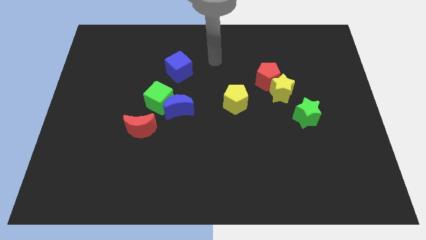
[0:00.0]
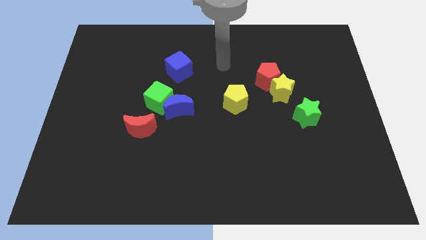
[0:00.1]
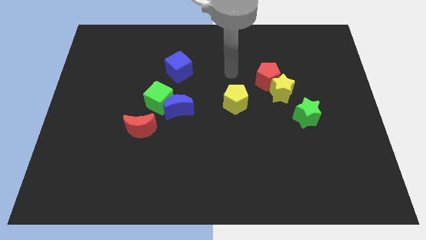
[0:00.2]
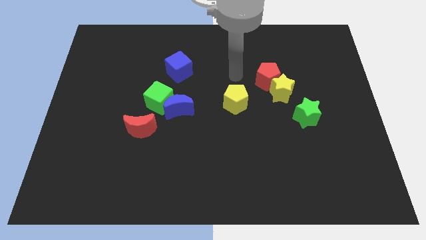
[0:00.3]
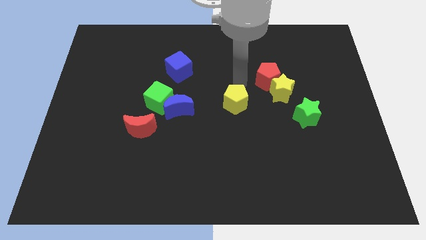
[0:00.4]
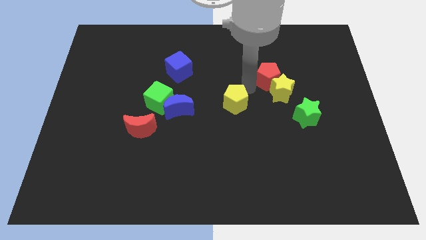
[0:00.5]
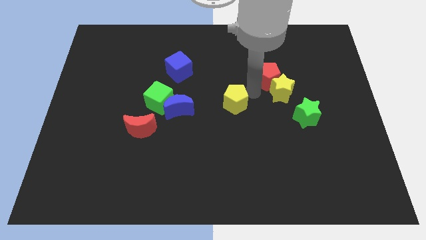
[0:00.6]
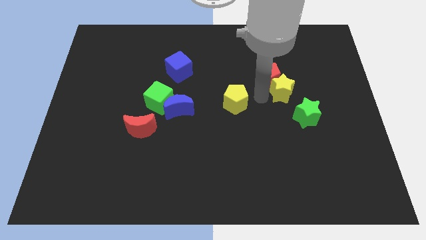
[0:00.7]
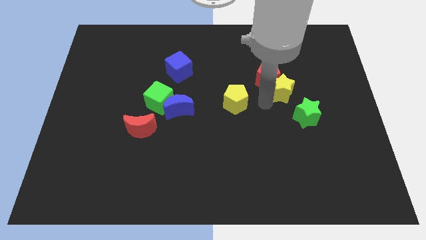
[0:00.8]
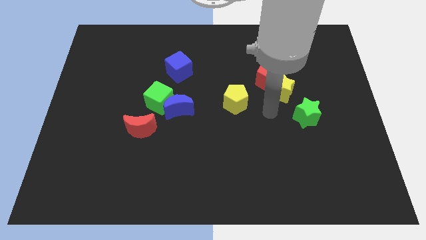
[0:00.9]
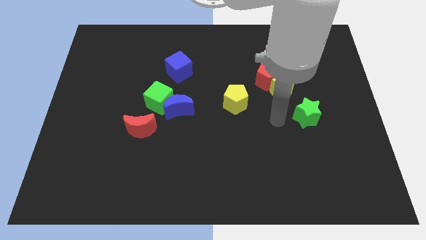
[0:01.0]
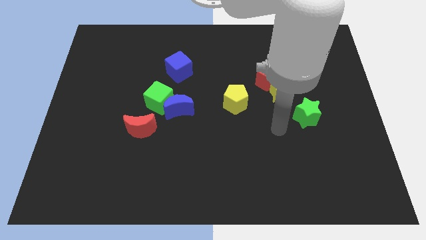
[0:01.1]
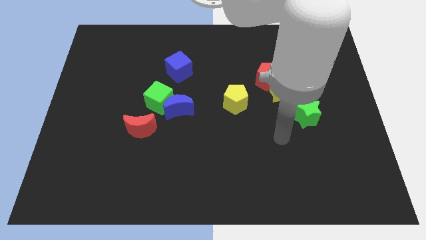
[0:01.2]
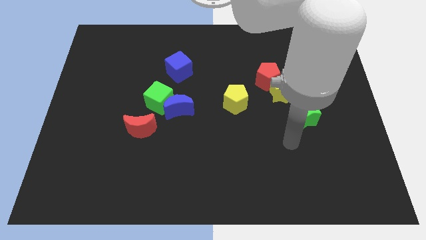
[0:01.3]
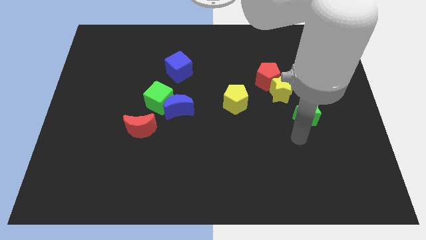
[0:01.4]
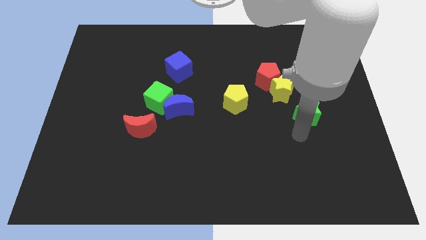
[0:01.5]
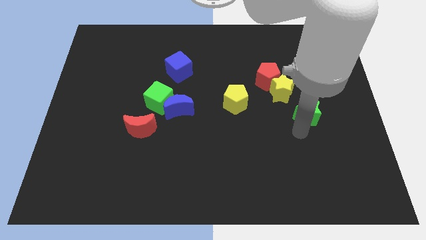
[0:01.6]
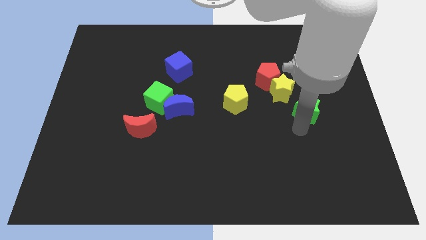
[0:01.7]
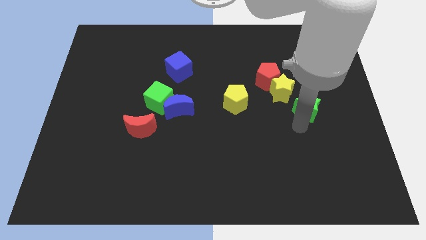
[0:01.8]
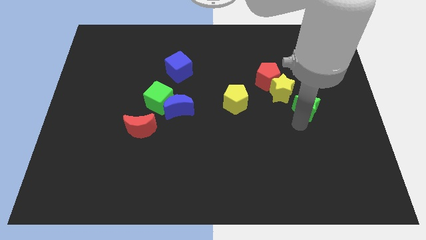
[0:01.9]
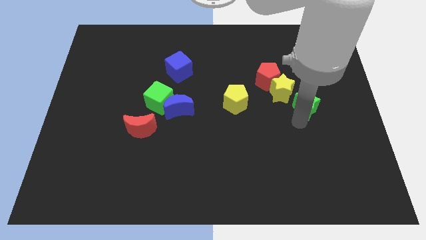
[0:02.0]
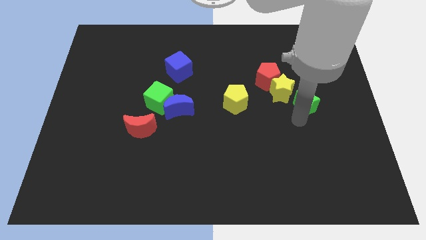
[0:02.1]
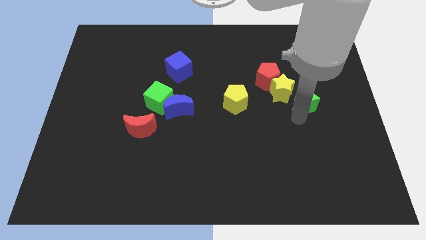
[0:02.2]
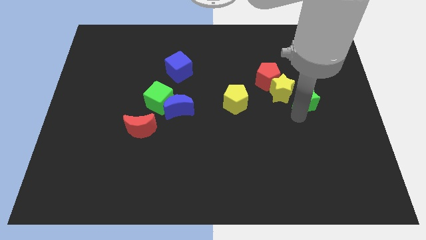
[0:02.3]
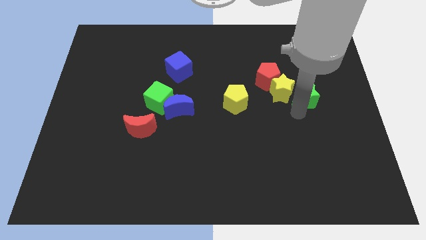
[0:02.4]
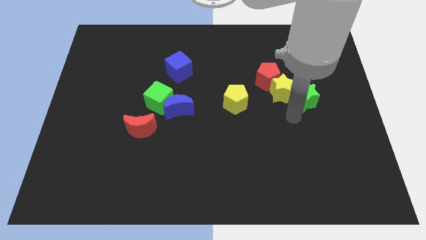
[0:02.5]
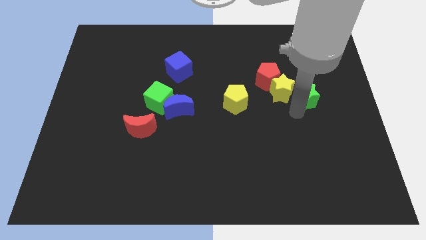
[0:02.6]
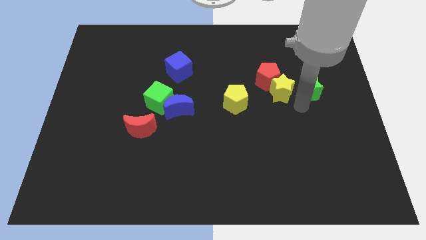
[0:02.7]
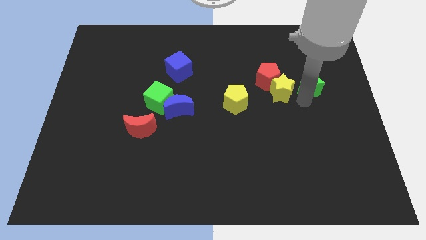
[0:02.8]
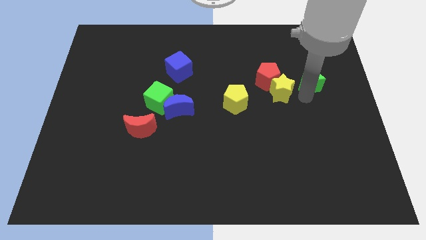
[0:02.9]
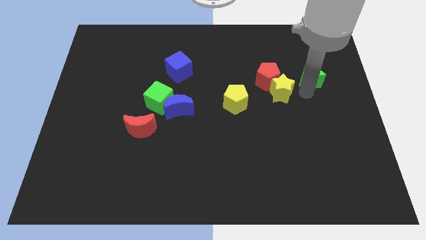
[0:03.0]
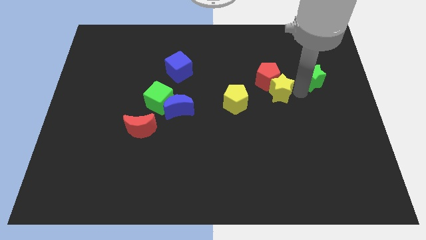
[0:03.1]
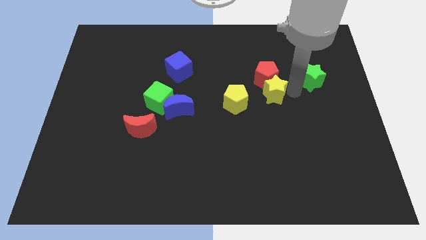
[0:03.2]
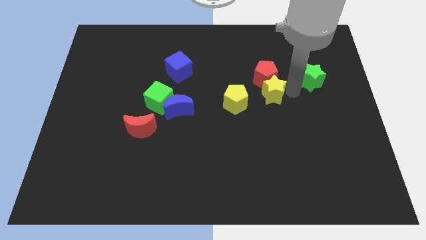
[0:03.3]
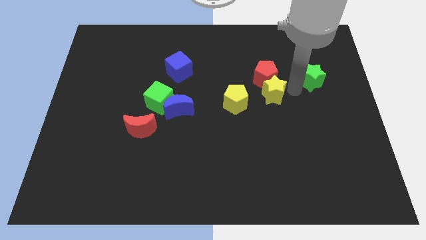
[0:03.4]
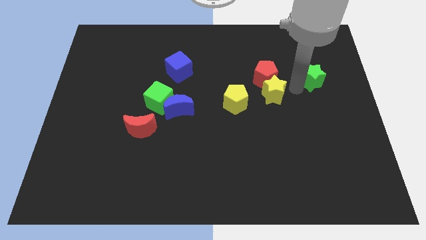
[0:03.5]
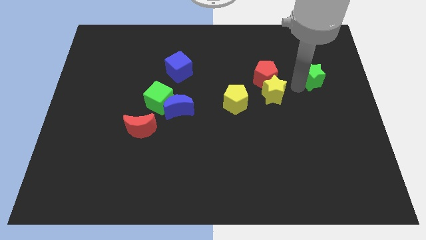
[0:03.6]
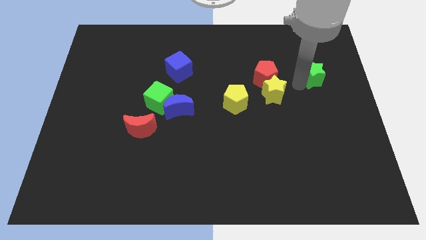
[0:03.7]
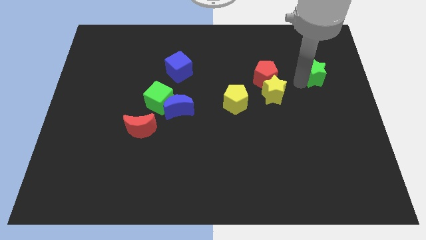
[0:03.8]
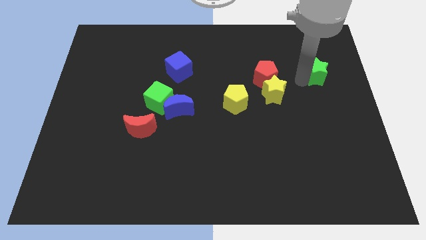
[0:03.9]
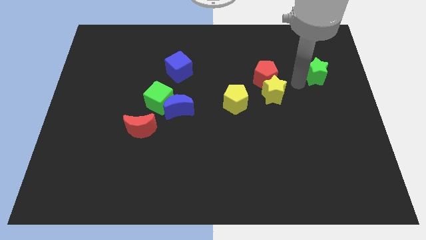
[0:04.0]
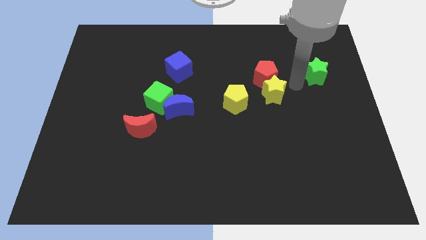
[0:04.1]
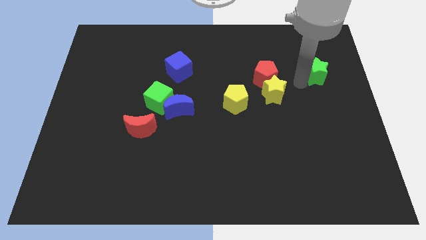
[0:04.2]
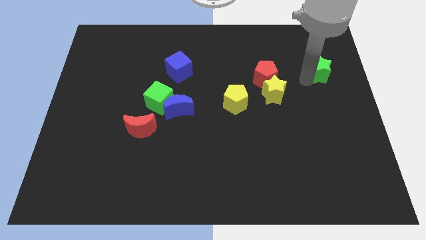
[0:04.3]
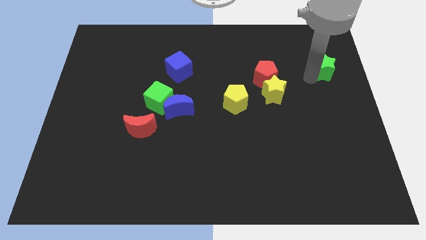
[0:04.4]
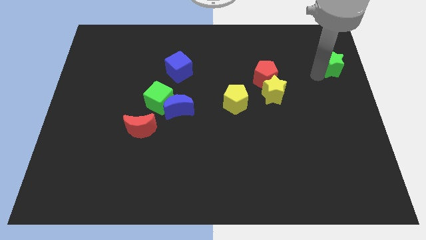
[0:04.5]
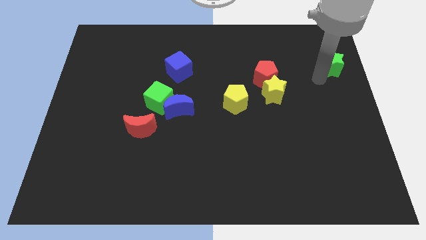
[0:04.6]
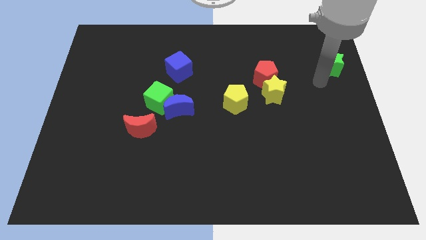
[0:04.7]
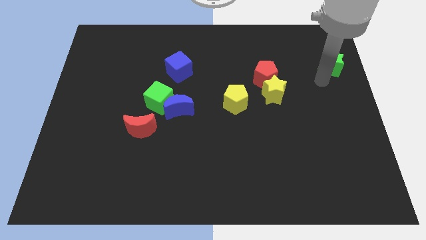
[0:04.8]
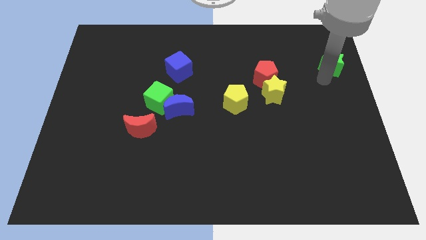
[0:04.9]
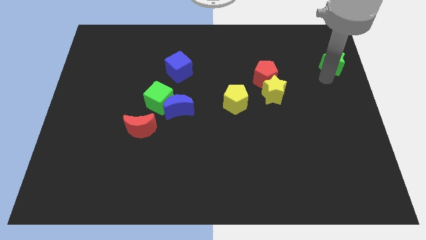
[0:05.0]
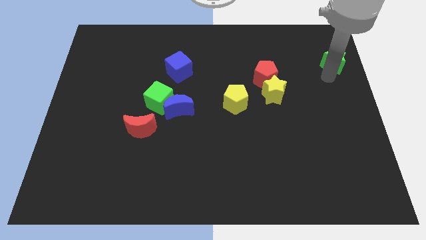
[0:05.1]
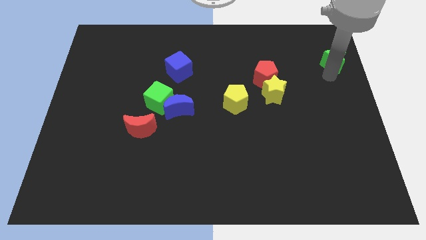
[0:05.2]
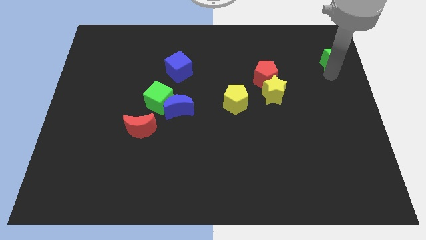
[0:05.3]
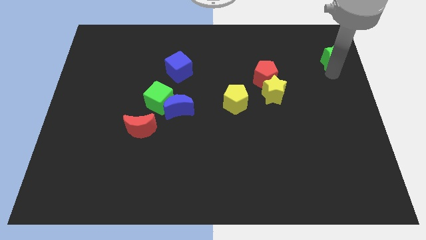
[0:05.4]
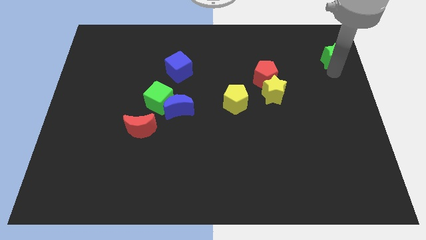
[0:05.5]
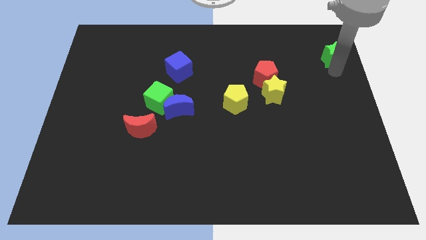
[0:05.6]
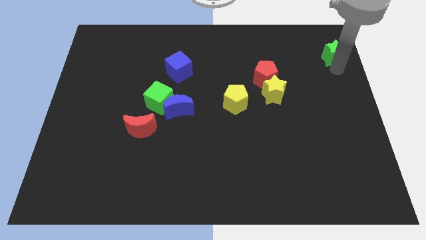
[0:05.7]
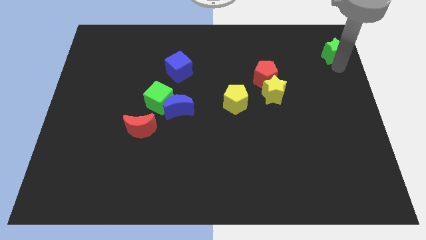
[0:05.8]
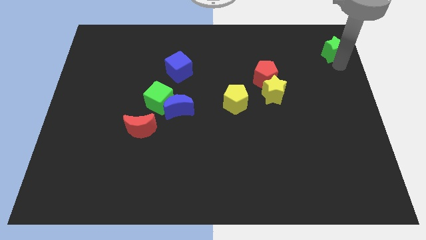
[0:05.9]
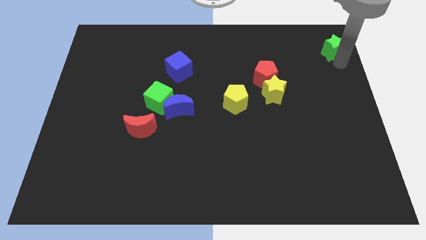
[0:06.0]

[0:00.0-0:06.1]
slide the green star to the top right

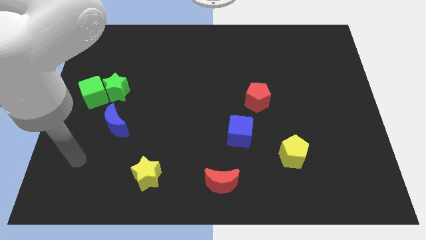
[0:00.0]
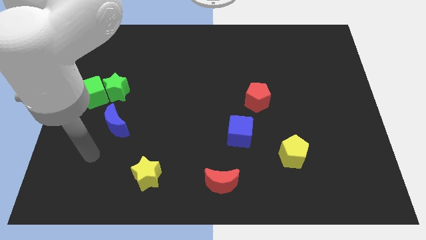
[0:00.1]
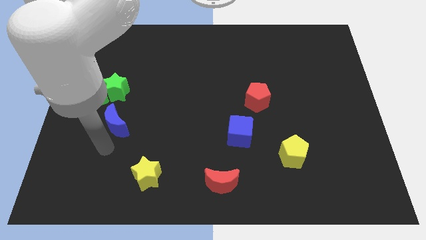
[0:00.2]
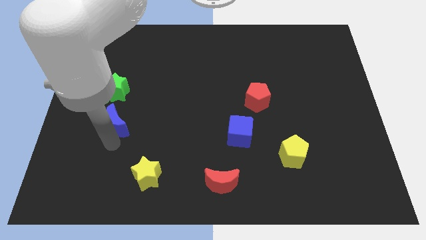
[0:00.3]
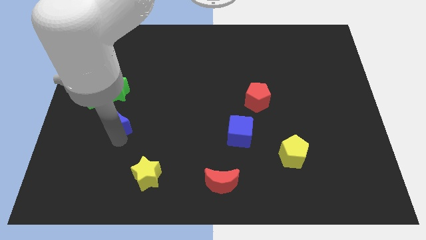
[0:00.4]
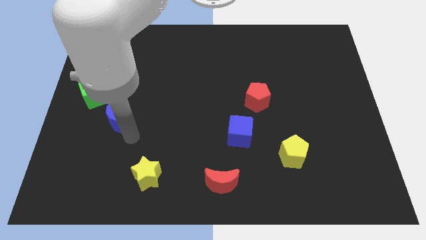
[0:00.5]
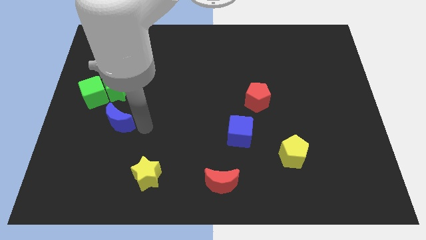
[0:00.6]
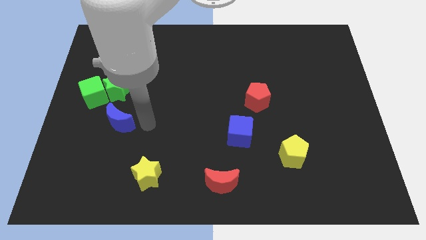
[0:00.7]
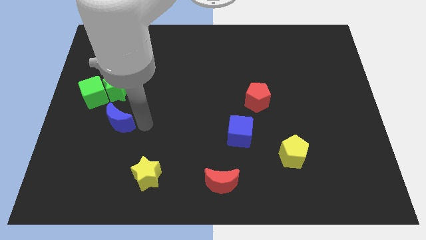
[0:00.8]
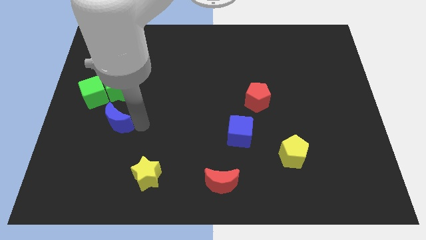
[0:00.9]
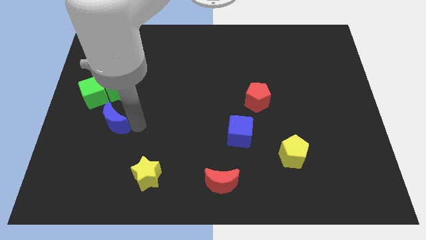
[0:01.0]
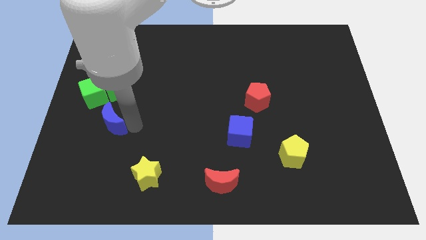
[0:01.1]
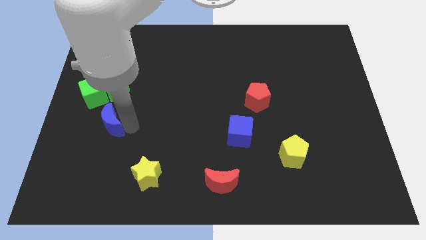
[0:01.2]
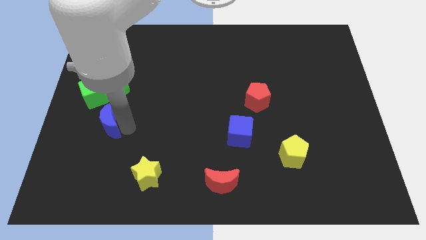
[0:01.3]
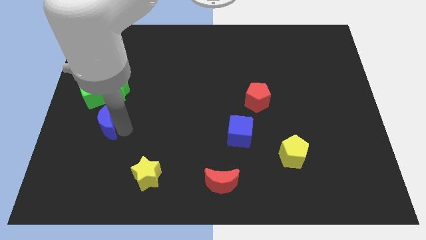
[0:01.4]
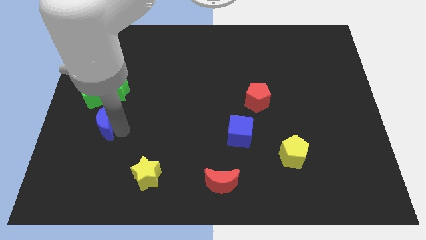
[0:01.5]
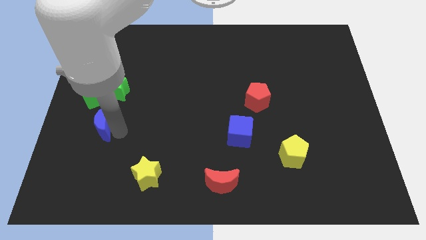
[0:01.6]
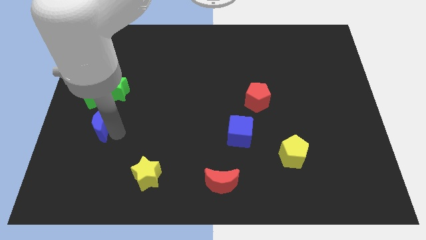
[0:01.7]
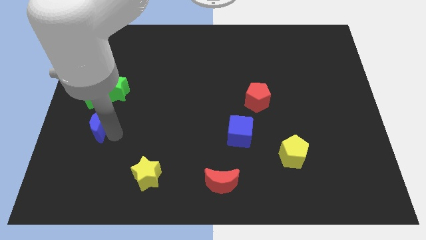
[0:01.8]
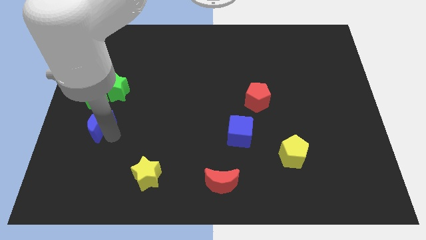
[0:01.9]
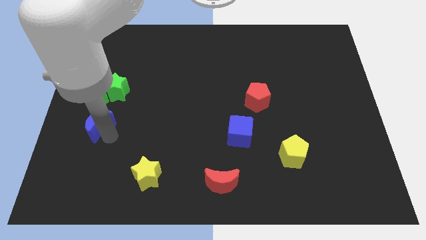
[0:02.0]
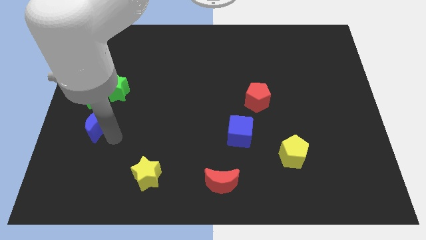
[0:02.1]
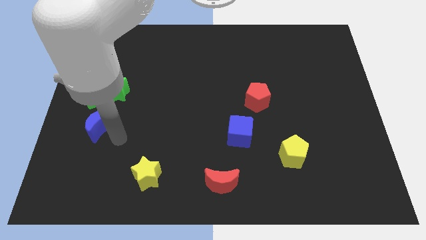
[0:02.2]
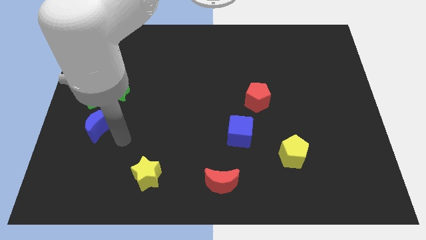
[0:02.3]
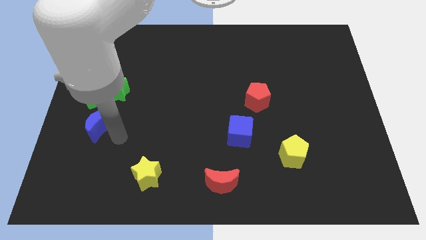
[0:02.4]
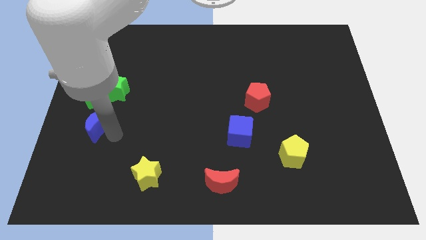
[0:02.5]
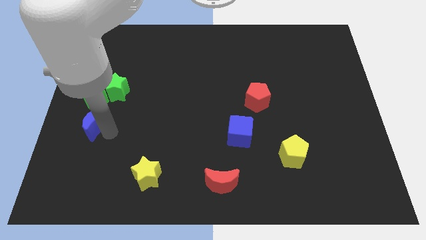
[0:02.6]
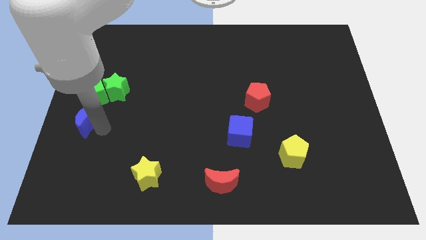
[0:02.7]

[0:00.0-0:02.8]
push the blue moon to the center left
